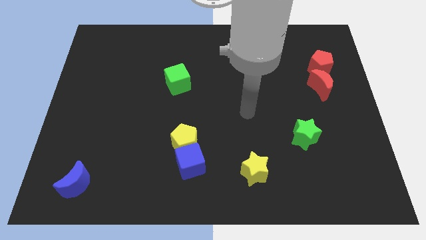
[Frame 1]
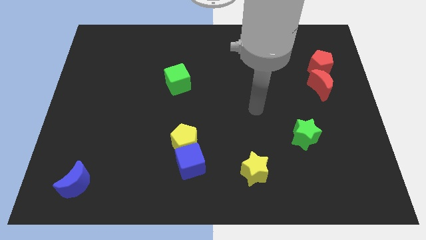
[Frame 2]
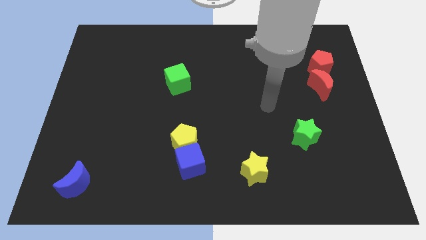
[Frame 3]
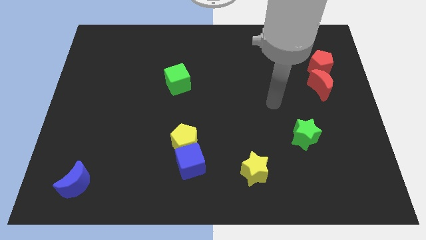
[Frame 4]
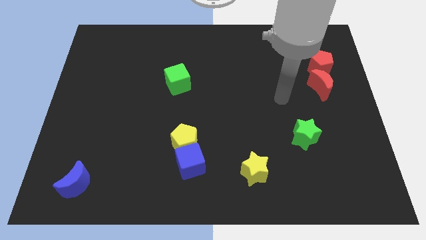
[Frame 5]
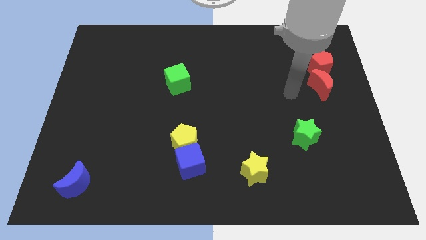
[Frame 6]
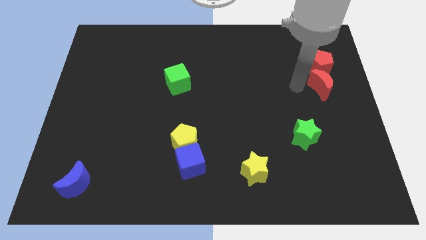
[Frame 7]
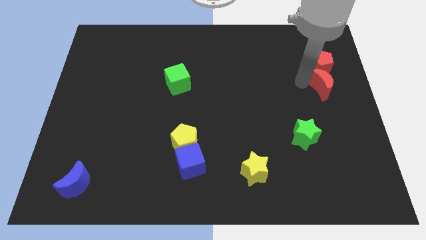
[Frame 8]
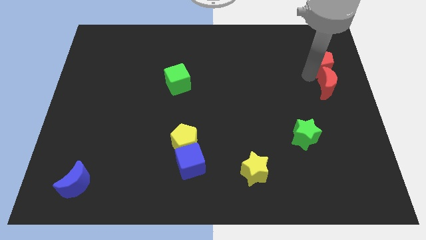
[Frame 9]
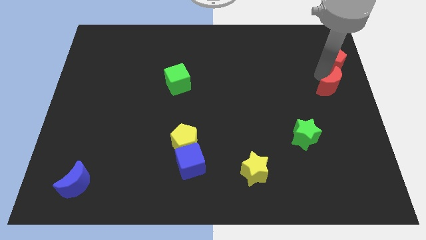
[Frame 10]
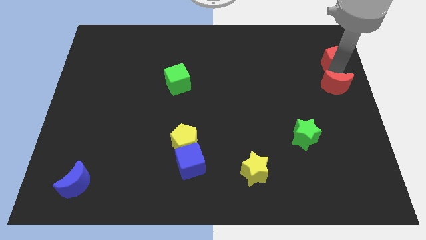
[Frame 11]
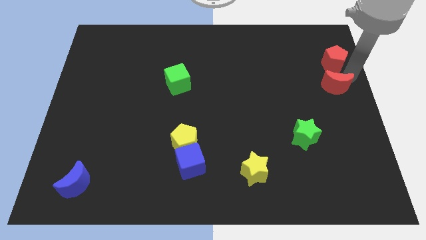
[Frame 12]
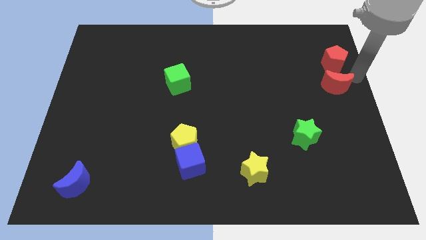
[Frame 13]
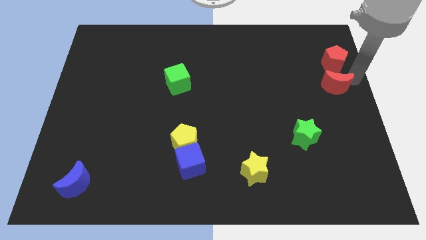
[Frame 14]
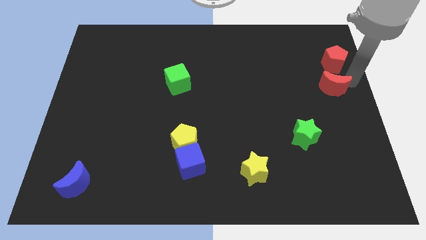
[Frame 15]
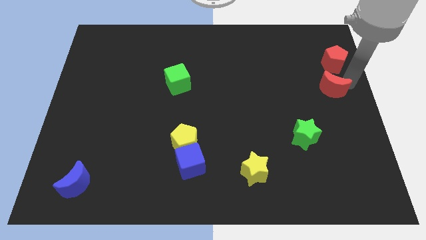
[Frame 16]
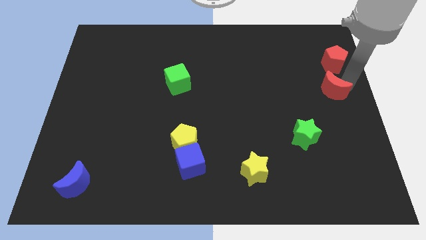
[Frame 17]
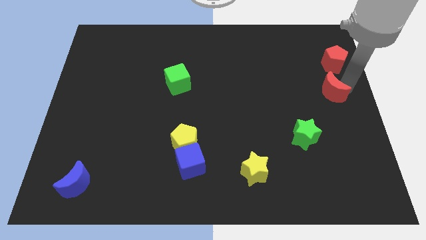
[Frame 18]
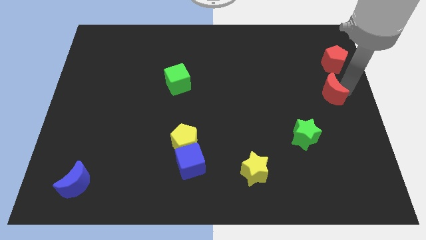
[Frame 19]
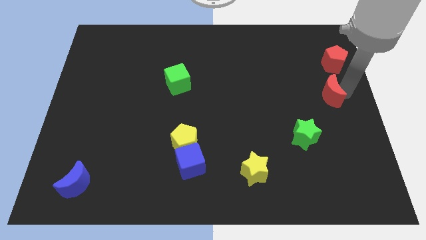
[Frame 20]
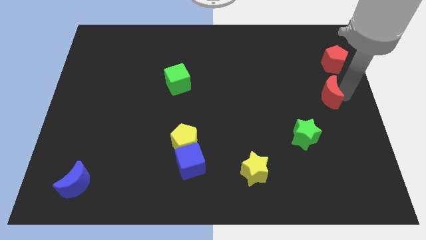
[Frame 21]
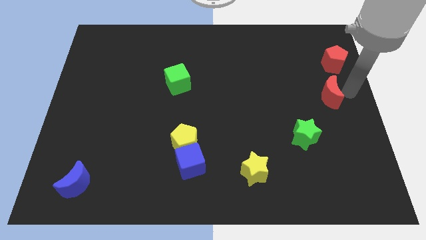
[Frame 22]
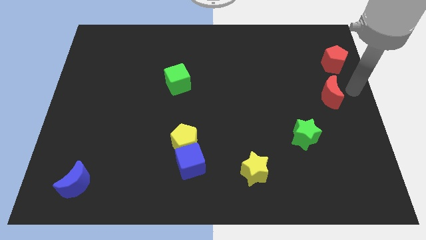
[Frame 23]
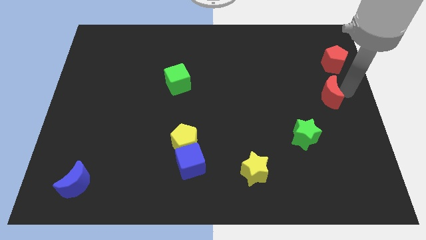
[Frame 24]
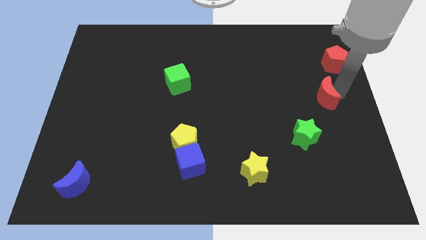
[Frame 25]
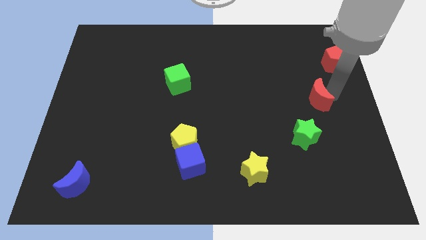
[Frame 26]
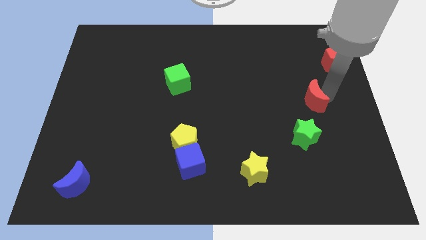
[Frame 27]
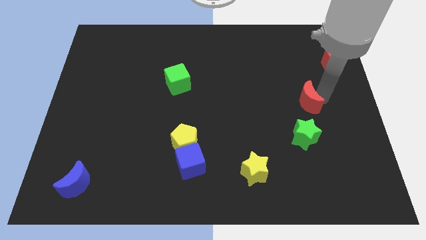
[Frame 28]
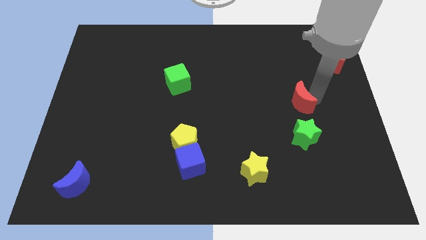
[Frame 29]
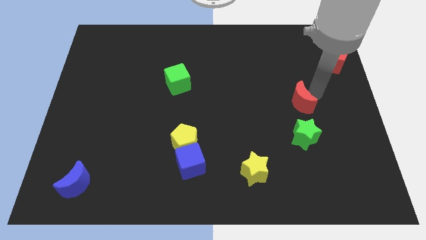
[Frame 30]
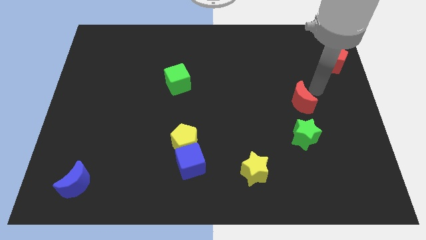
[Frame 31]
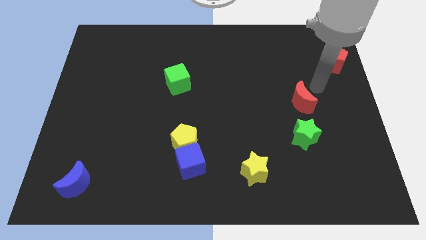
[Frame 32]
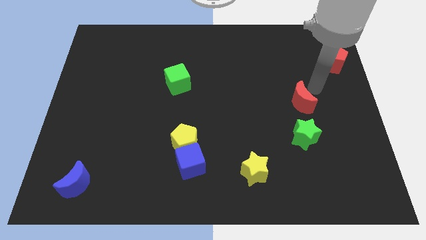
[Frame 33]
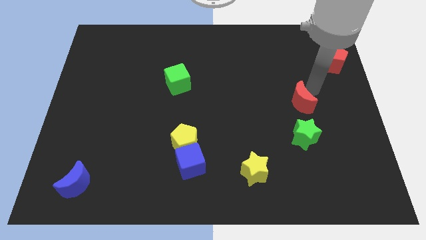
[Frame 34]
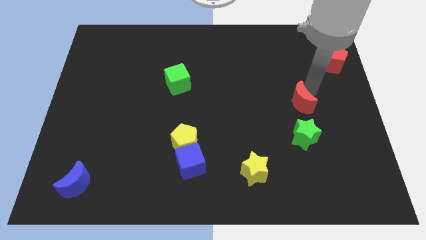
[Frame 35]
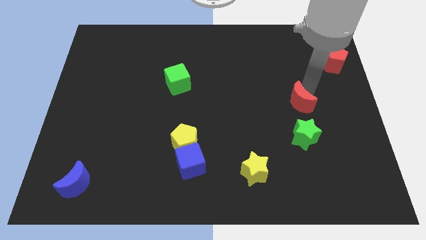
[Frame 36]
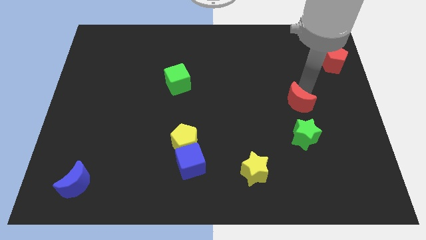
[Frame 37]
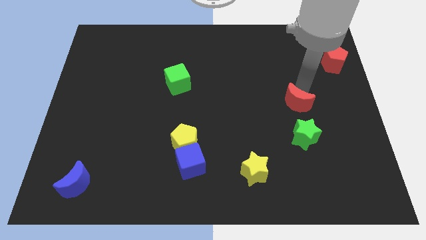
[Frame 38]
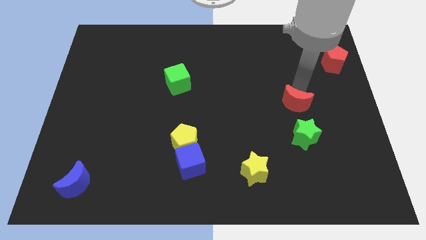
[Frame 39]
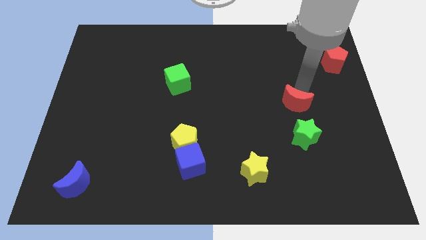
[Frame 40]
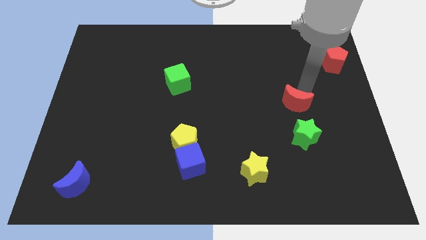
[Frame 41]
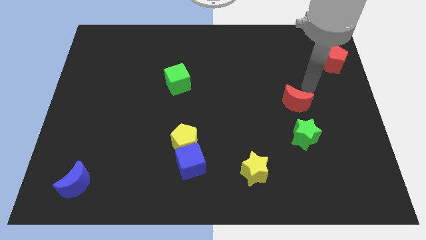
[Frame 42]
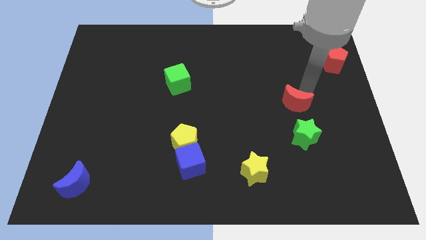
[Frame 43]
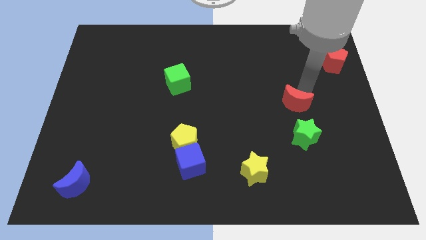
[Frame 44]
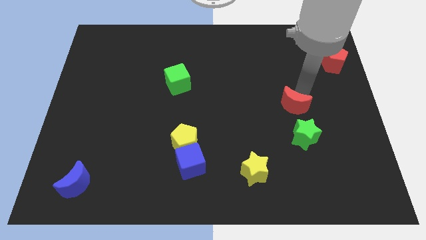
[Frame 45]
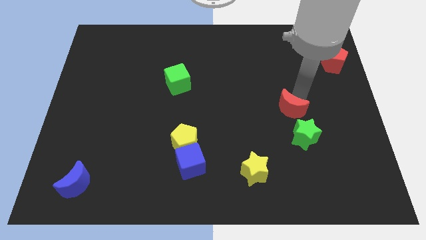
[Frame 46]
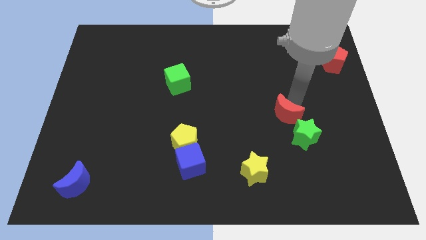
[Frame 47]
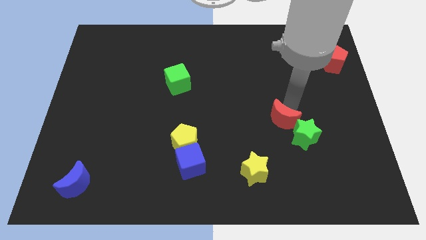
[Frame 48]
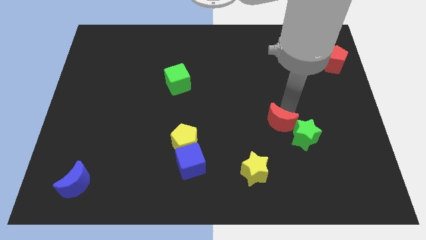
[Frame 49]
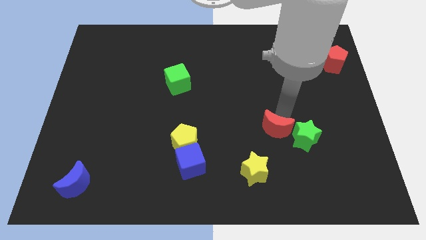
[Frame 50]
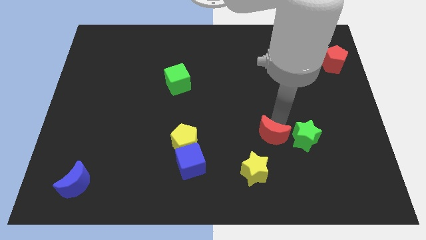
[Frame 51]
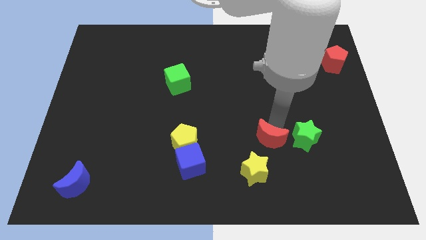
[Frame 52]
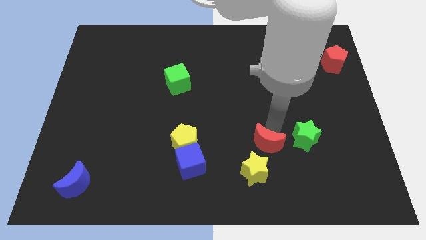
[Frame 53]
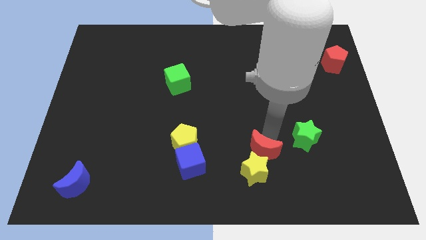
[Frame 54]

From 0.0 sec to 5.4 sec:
move the red moon to the yellow star

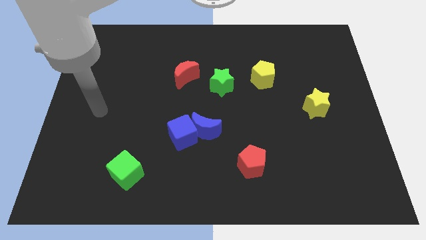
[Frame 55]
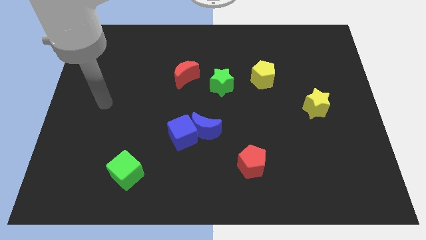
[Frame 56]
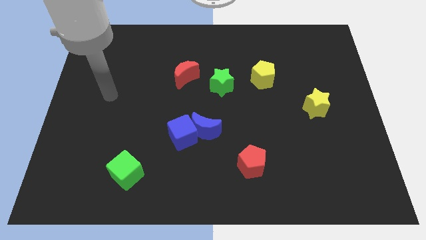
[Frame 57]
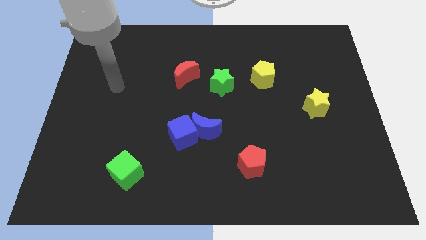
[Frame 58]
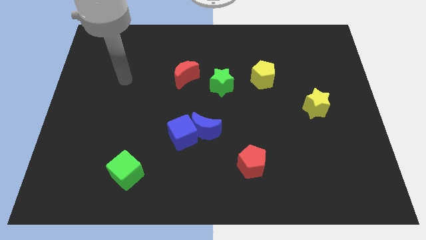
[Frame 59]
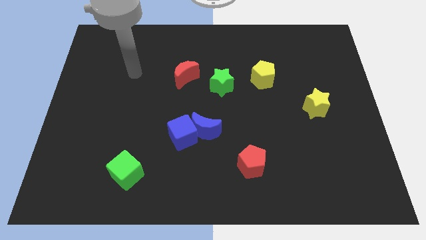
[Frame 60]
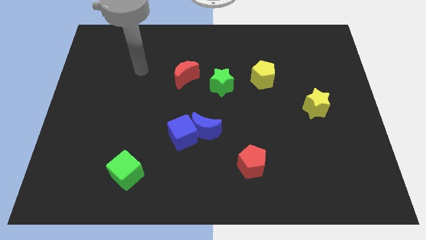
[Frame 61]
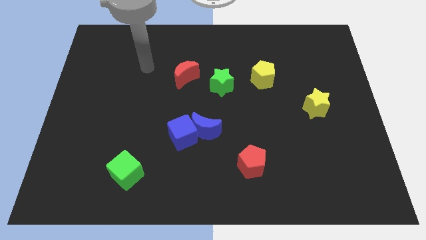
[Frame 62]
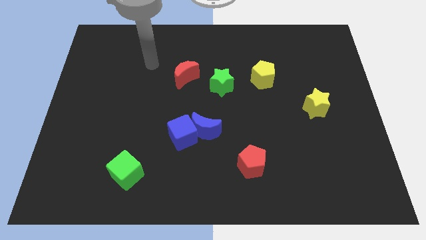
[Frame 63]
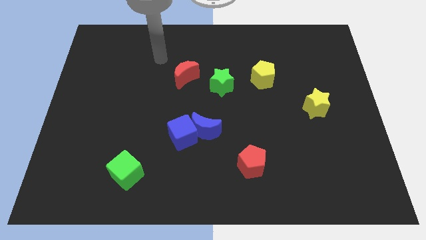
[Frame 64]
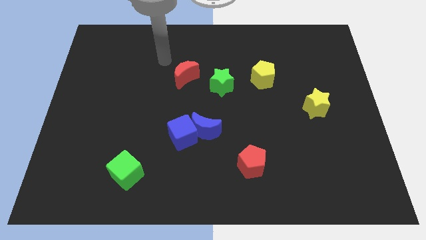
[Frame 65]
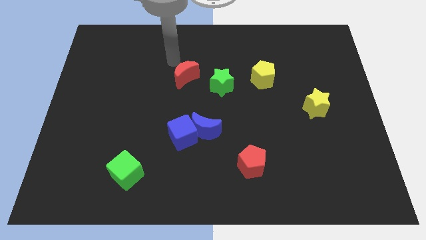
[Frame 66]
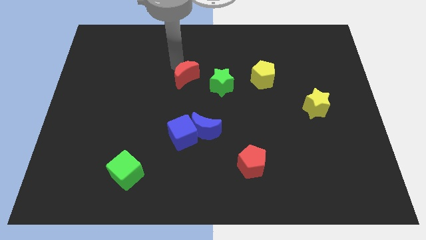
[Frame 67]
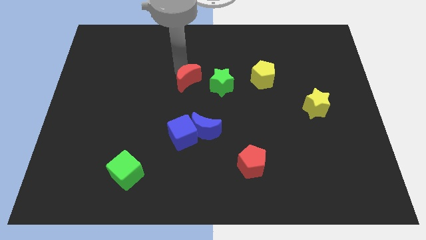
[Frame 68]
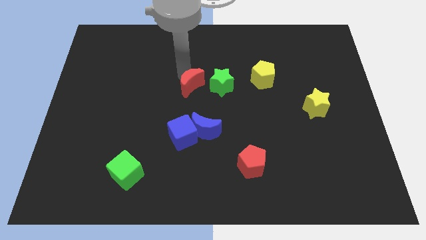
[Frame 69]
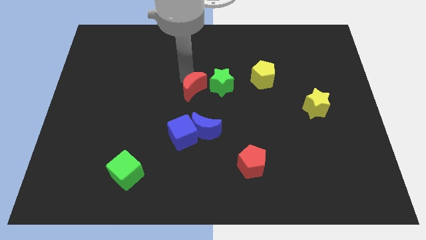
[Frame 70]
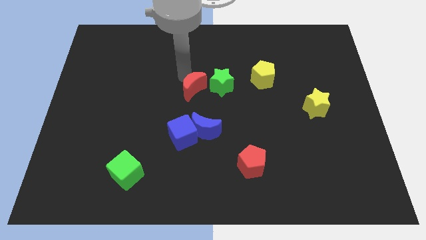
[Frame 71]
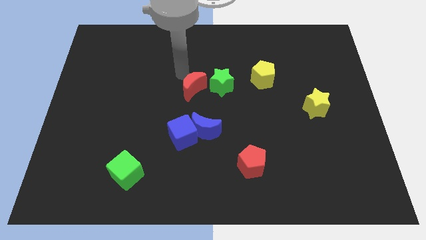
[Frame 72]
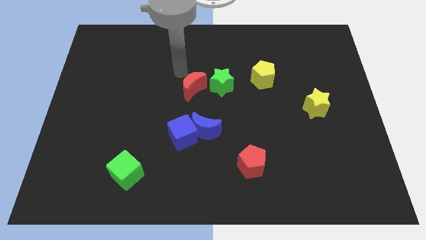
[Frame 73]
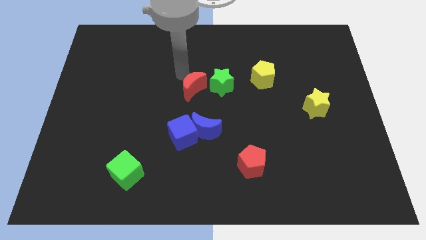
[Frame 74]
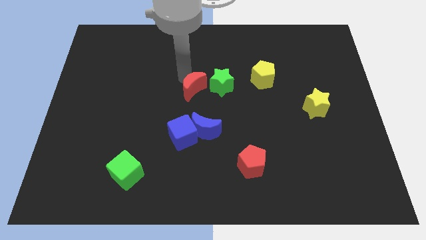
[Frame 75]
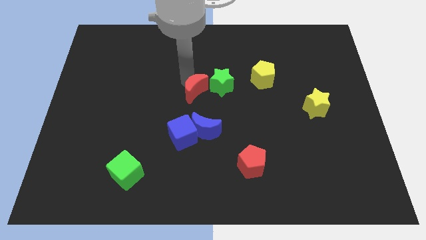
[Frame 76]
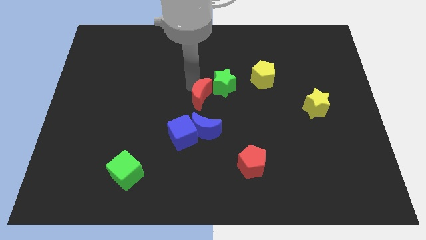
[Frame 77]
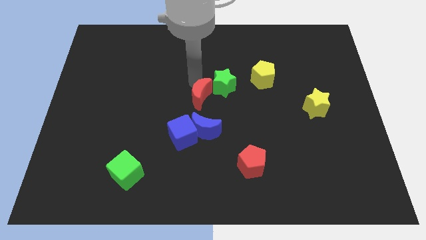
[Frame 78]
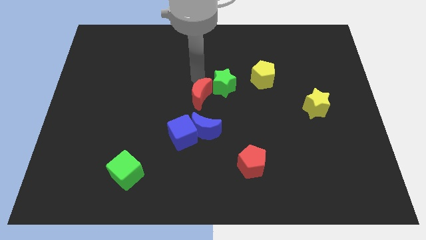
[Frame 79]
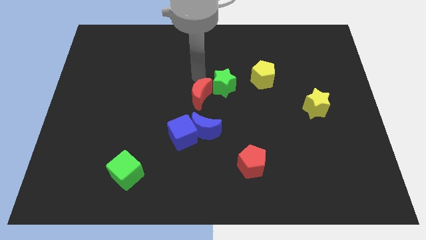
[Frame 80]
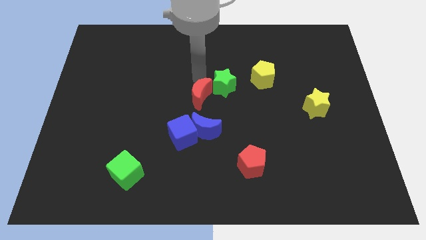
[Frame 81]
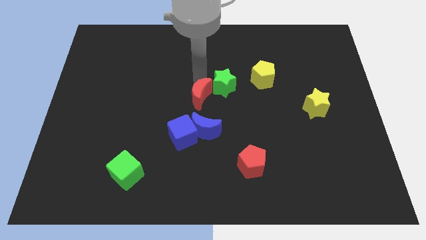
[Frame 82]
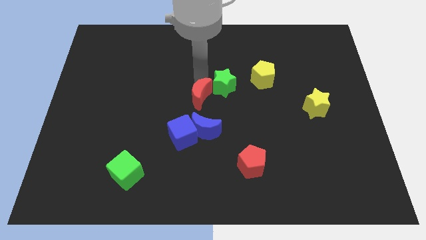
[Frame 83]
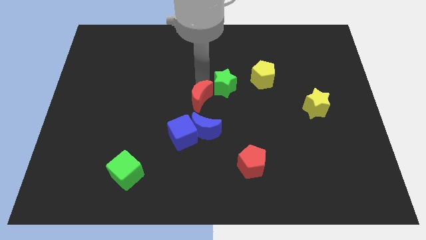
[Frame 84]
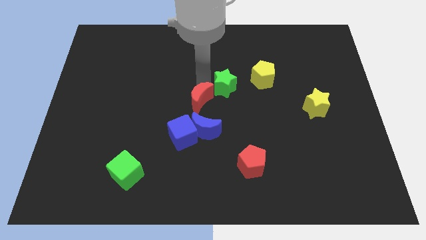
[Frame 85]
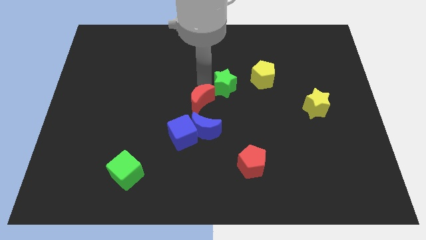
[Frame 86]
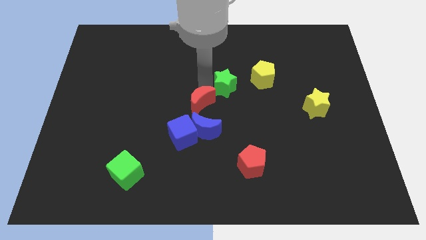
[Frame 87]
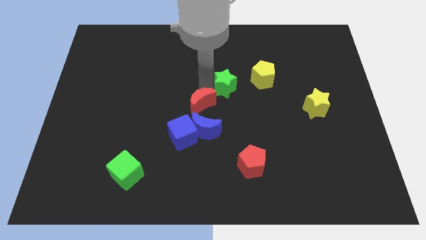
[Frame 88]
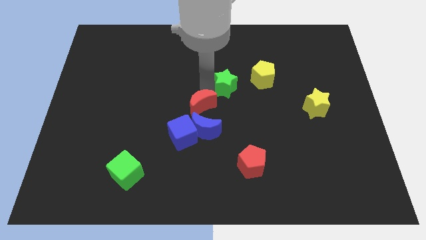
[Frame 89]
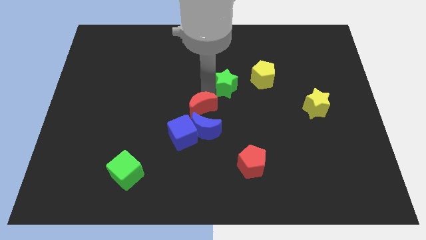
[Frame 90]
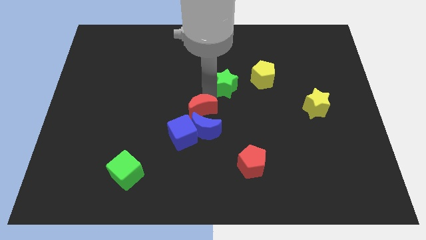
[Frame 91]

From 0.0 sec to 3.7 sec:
push the red moon close to the blue moon
